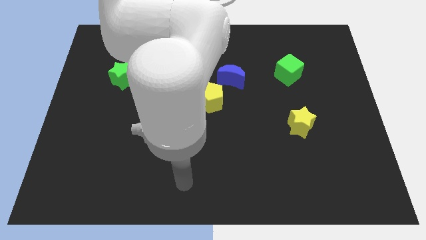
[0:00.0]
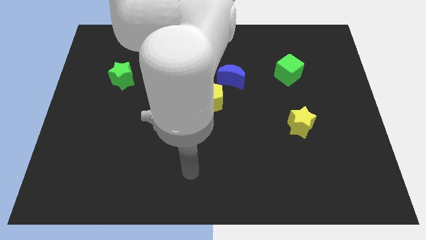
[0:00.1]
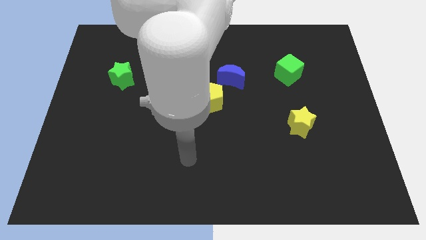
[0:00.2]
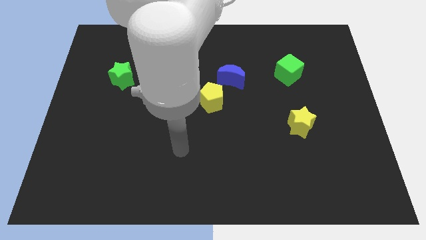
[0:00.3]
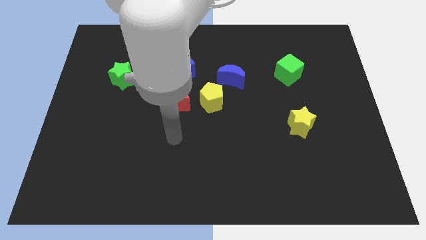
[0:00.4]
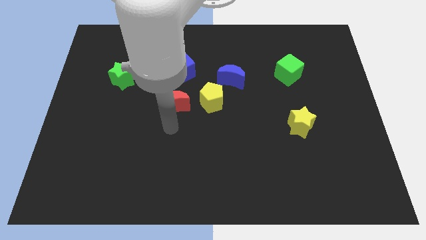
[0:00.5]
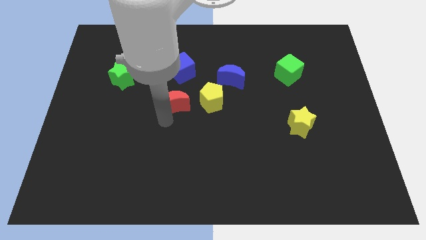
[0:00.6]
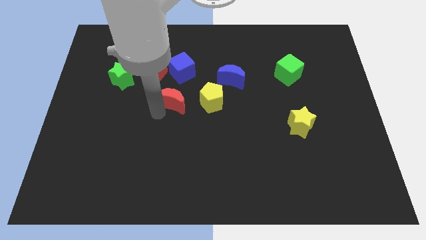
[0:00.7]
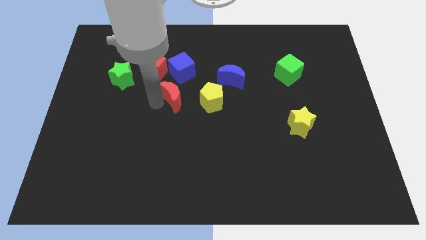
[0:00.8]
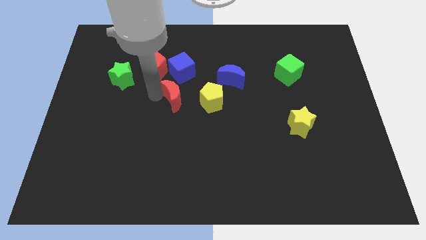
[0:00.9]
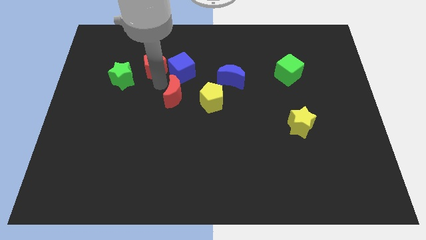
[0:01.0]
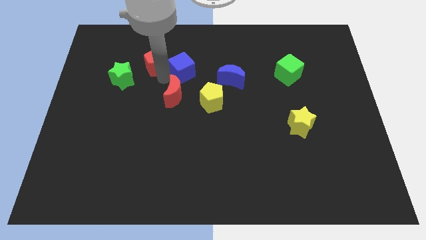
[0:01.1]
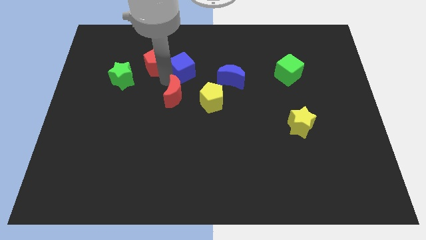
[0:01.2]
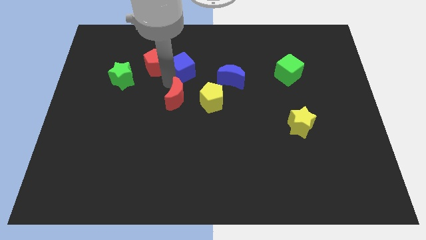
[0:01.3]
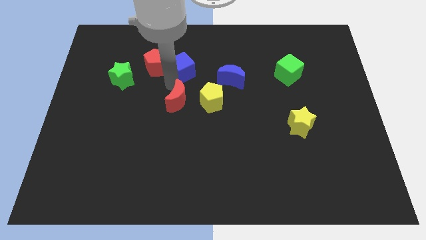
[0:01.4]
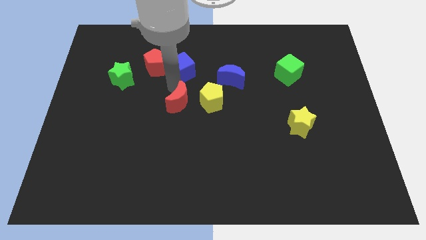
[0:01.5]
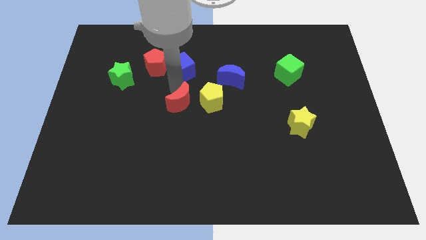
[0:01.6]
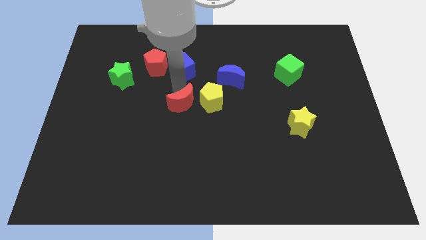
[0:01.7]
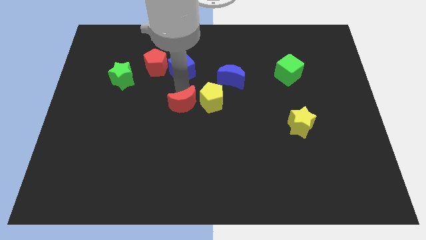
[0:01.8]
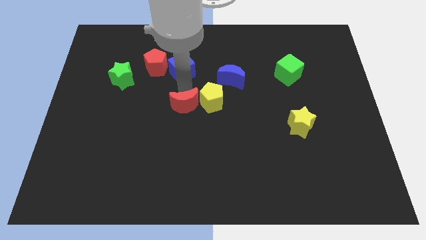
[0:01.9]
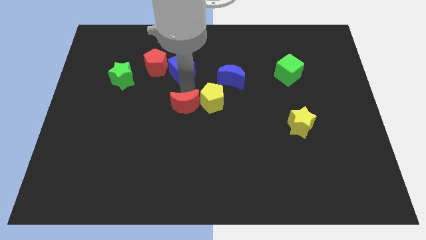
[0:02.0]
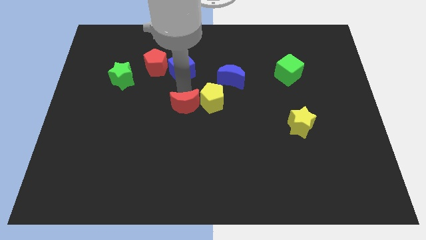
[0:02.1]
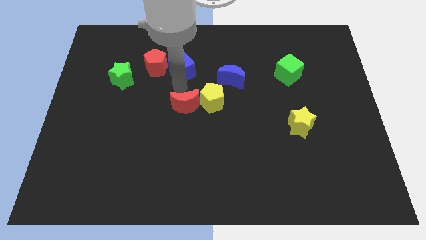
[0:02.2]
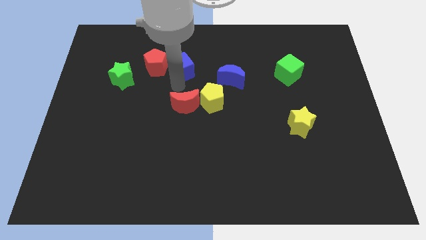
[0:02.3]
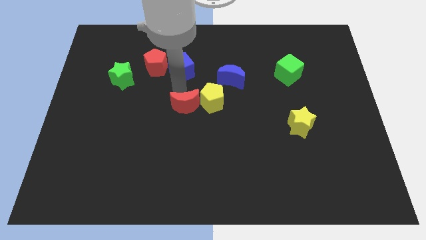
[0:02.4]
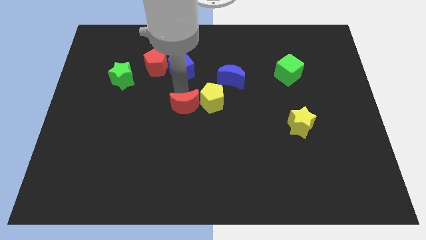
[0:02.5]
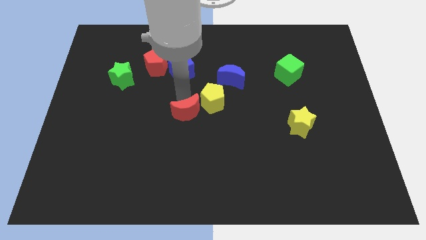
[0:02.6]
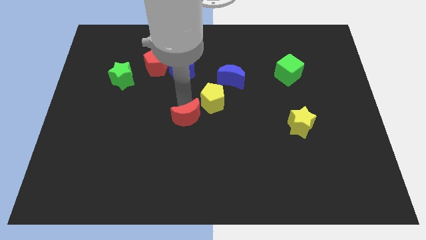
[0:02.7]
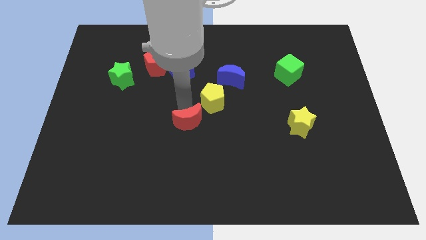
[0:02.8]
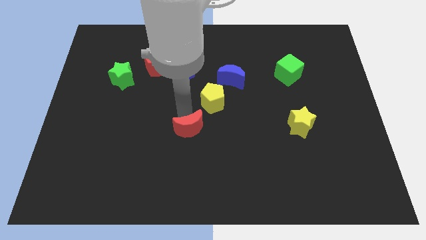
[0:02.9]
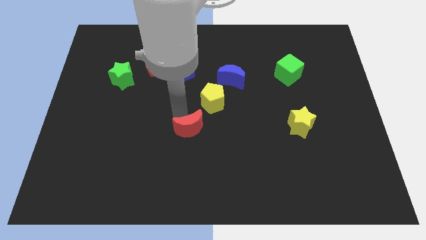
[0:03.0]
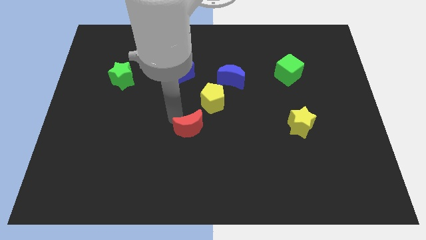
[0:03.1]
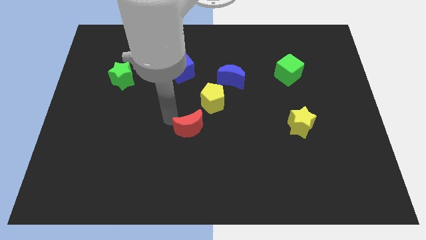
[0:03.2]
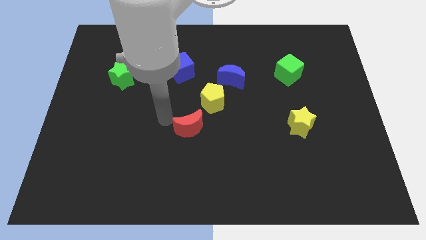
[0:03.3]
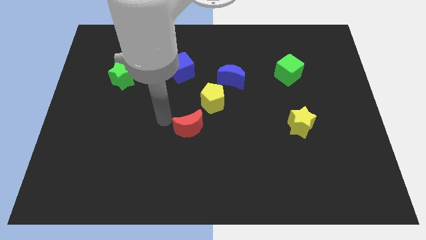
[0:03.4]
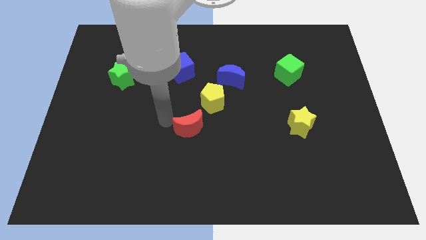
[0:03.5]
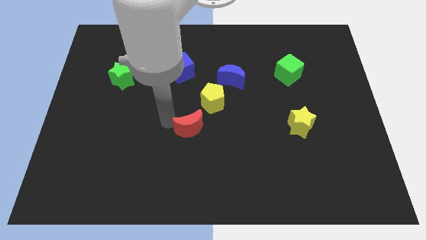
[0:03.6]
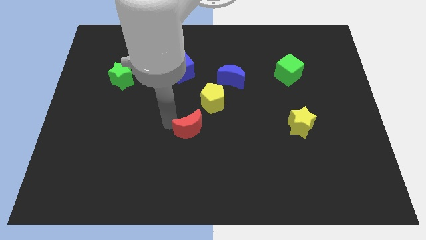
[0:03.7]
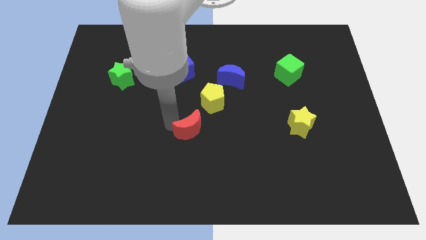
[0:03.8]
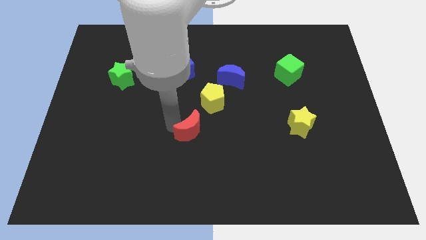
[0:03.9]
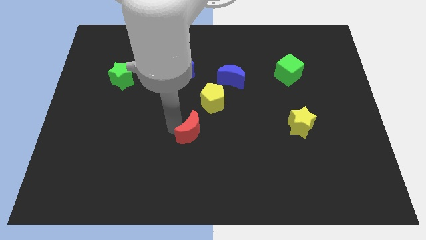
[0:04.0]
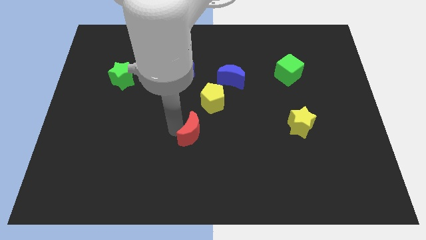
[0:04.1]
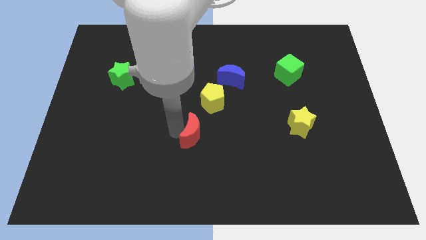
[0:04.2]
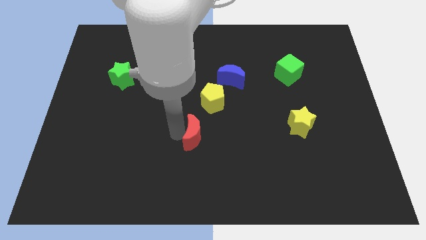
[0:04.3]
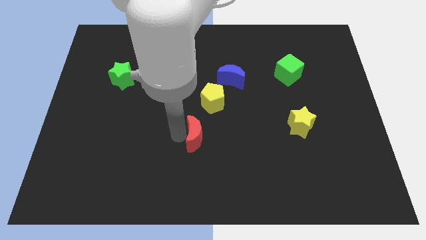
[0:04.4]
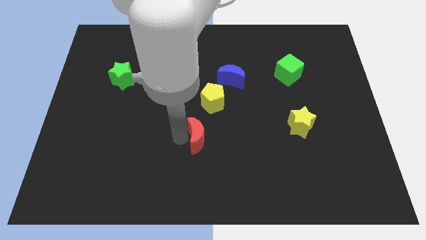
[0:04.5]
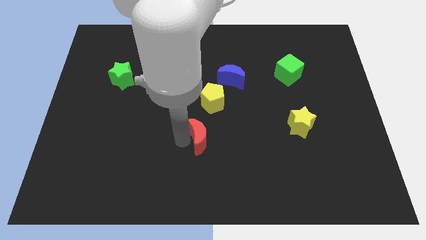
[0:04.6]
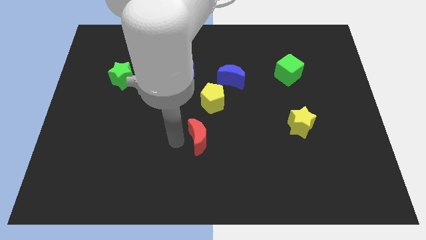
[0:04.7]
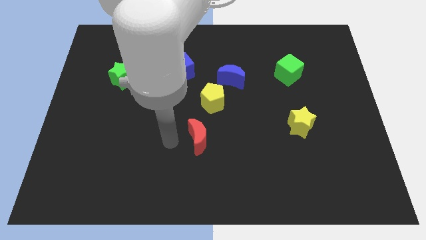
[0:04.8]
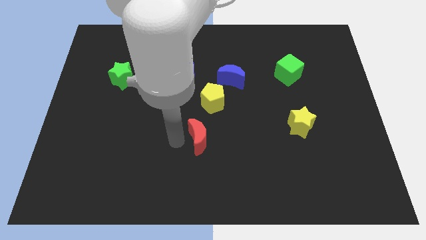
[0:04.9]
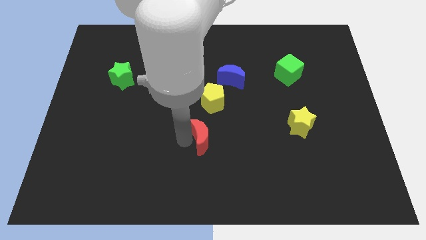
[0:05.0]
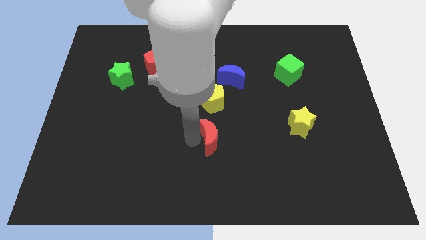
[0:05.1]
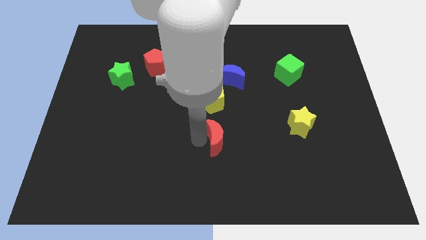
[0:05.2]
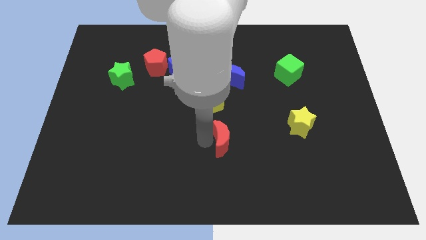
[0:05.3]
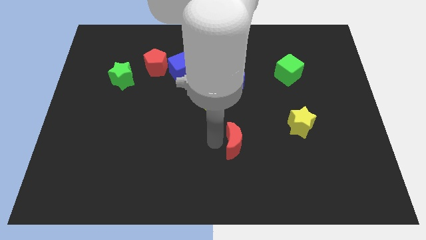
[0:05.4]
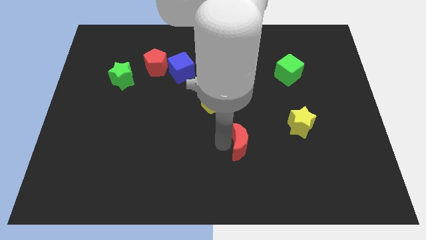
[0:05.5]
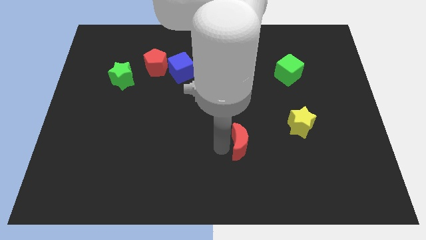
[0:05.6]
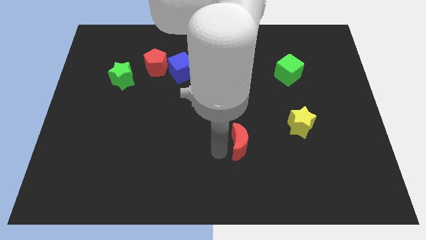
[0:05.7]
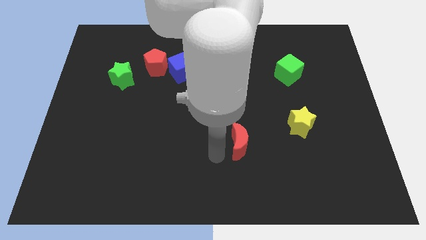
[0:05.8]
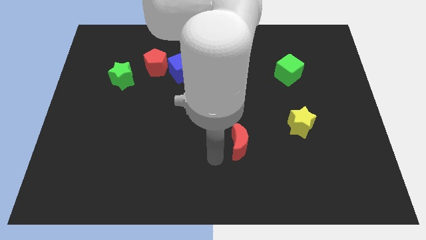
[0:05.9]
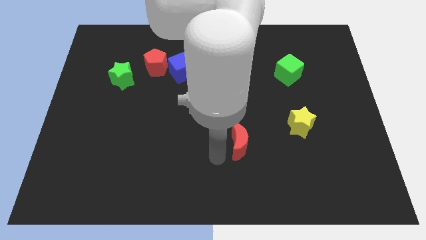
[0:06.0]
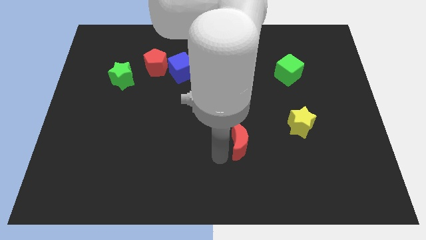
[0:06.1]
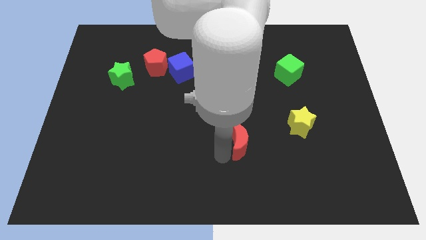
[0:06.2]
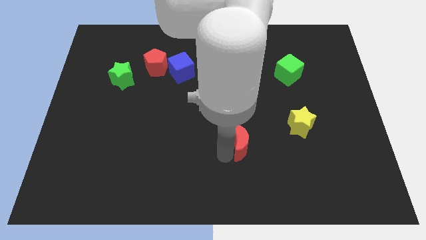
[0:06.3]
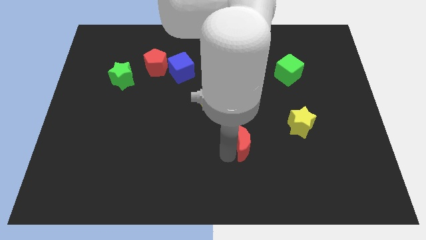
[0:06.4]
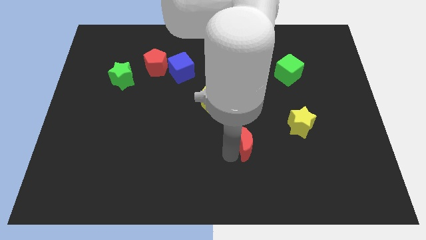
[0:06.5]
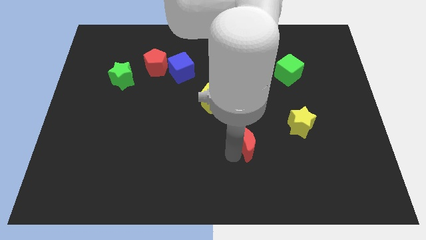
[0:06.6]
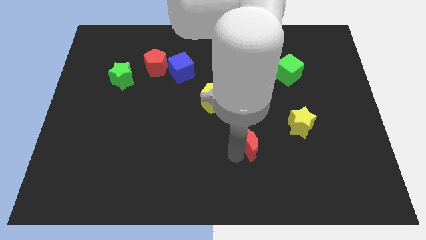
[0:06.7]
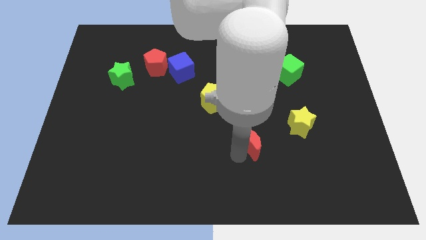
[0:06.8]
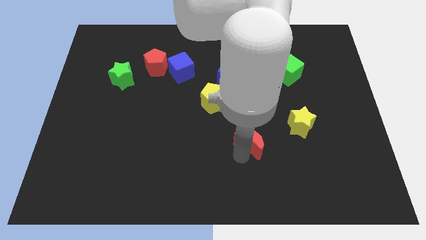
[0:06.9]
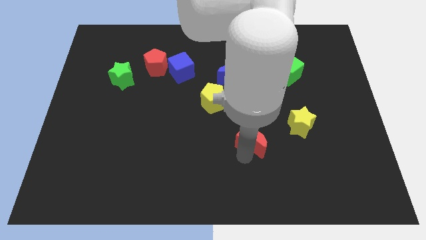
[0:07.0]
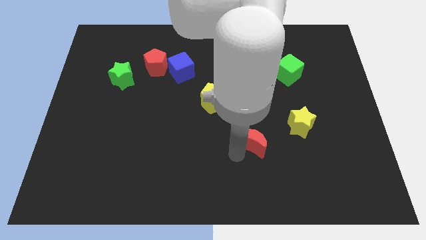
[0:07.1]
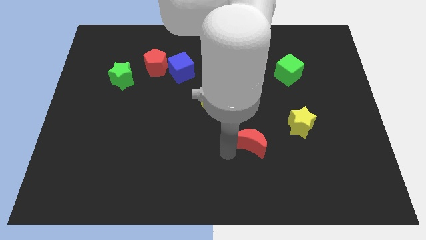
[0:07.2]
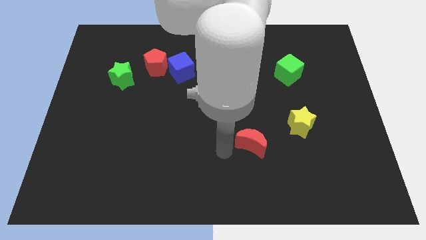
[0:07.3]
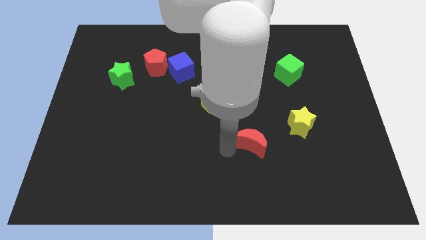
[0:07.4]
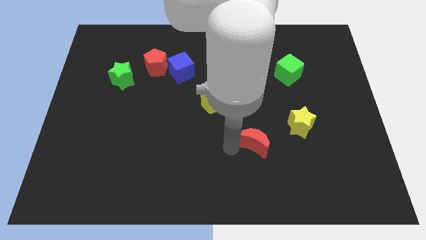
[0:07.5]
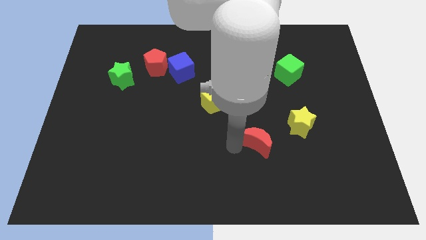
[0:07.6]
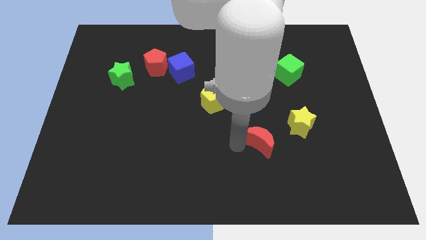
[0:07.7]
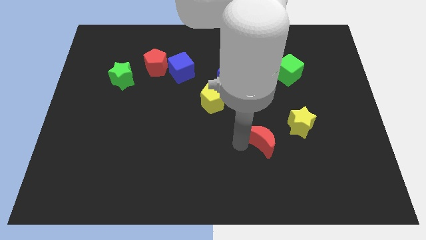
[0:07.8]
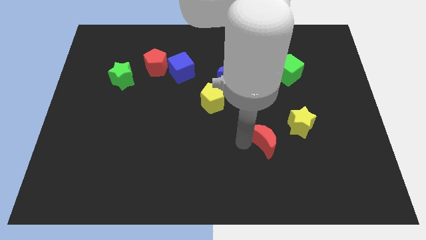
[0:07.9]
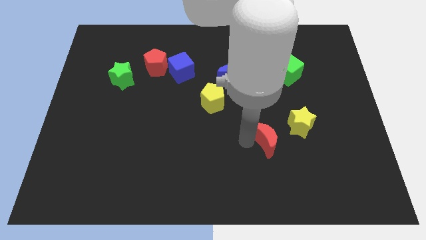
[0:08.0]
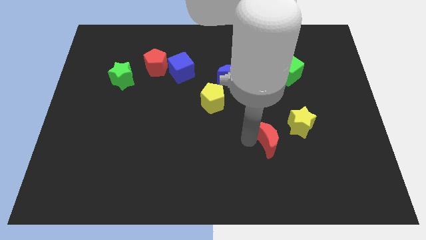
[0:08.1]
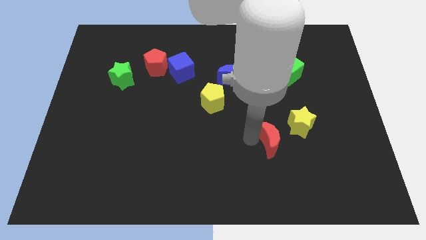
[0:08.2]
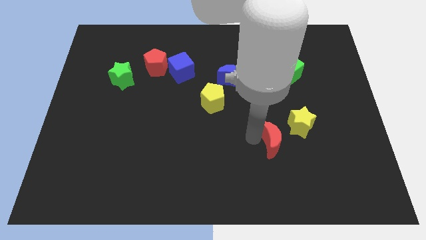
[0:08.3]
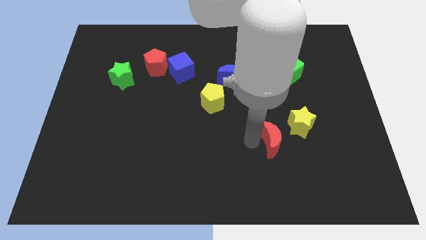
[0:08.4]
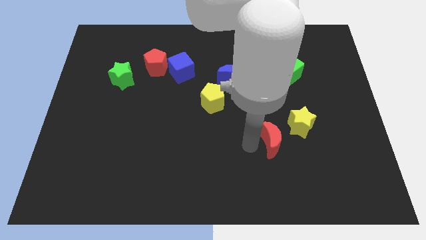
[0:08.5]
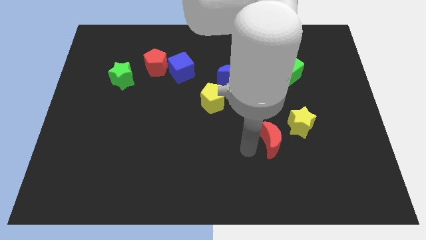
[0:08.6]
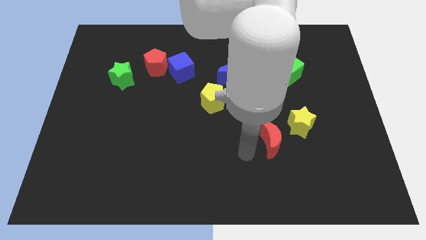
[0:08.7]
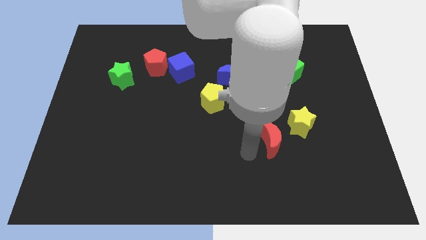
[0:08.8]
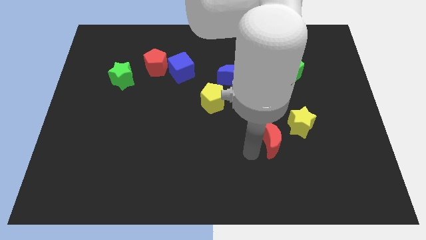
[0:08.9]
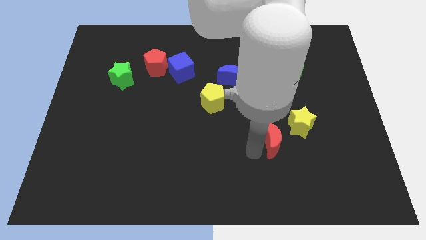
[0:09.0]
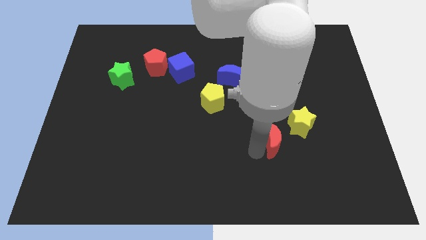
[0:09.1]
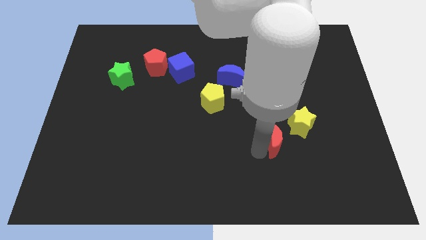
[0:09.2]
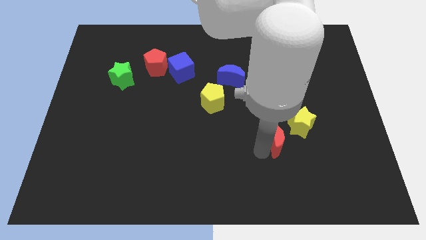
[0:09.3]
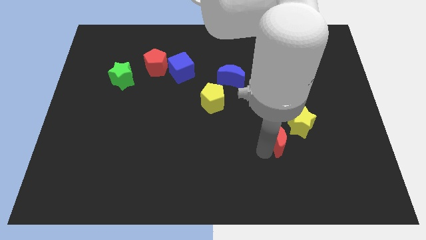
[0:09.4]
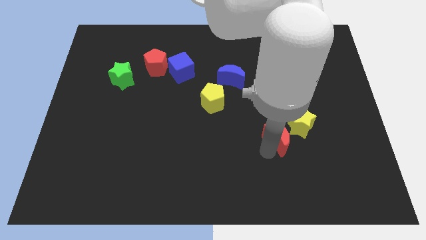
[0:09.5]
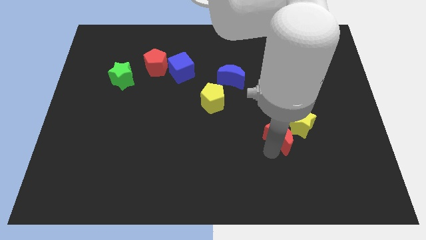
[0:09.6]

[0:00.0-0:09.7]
slide the red moon close to the yellow star
